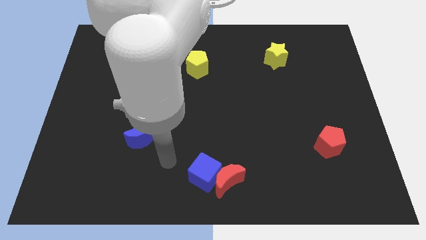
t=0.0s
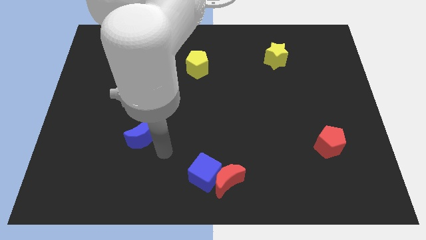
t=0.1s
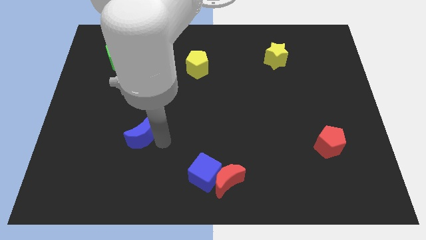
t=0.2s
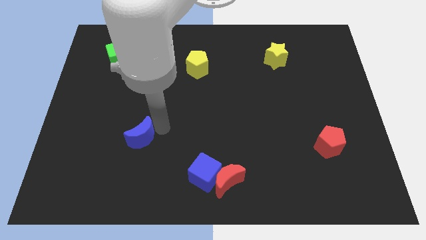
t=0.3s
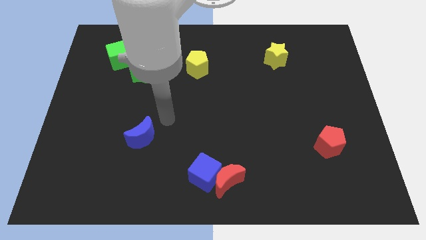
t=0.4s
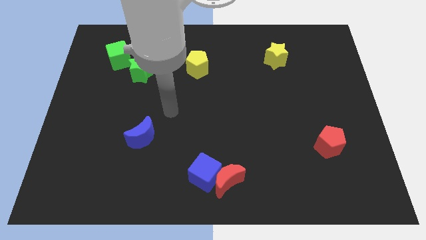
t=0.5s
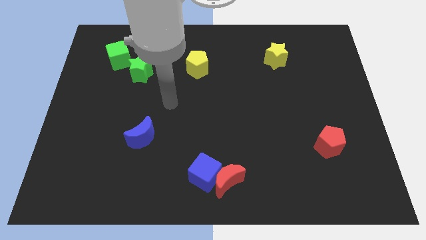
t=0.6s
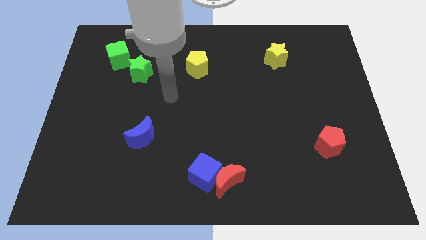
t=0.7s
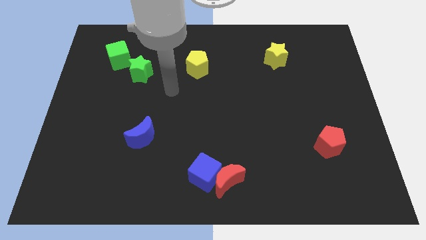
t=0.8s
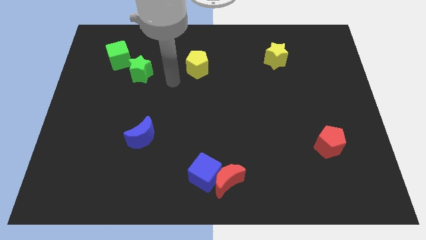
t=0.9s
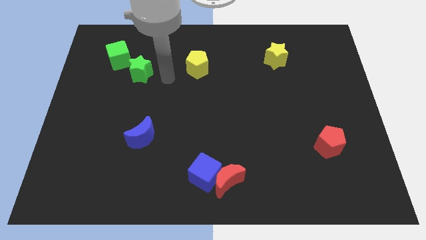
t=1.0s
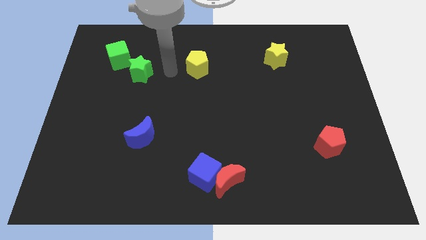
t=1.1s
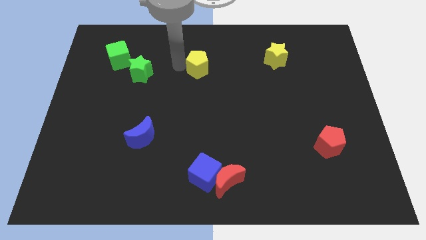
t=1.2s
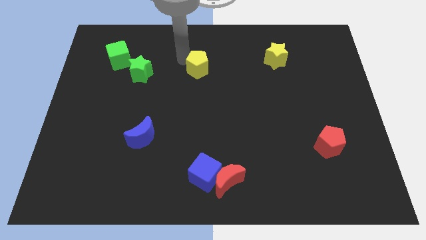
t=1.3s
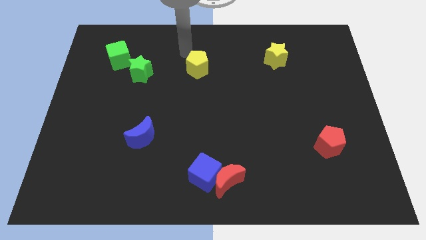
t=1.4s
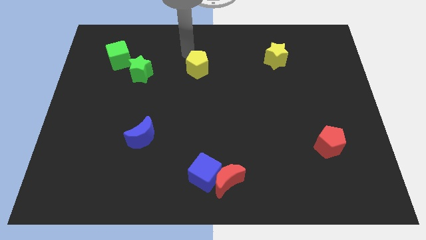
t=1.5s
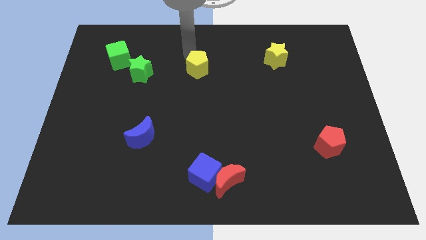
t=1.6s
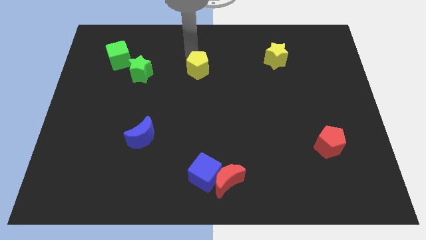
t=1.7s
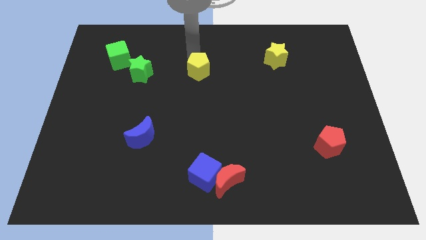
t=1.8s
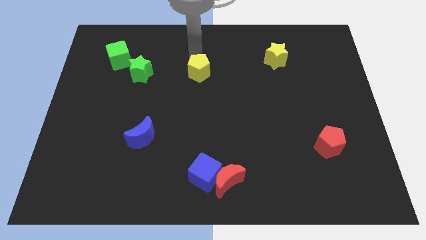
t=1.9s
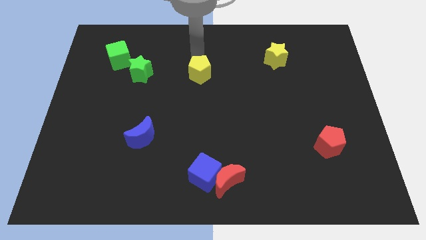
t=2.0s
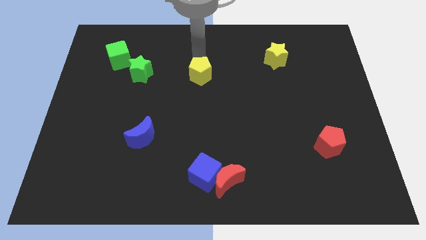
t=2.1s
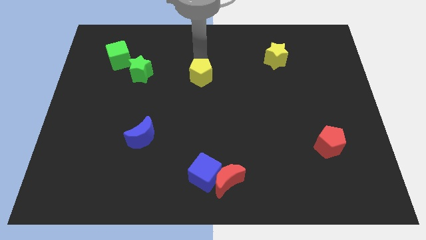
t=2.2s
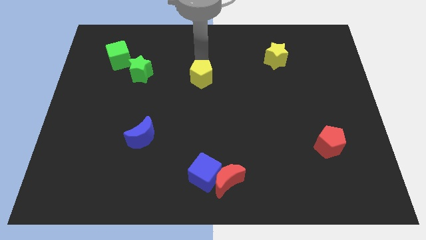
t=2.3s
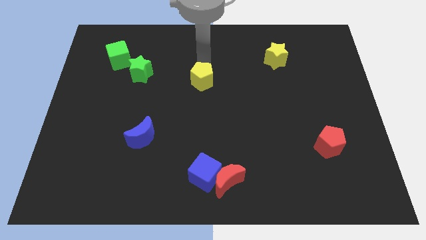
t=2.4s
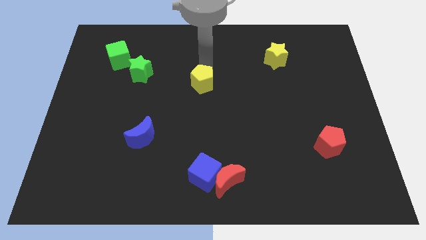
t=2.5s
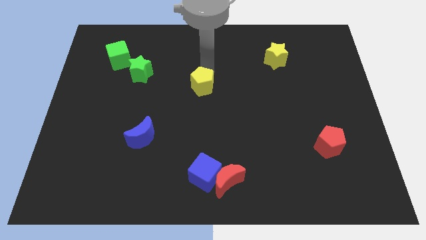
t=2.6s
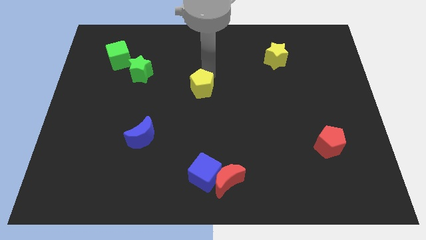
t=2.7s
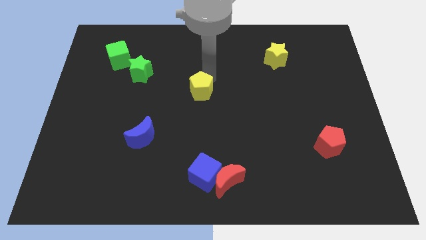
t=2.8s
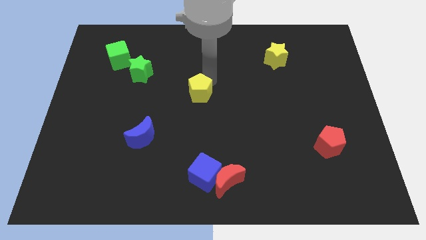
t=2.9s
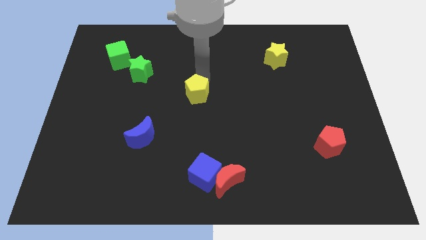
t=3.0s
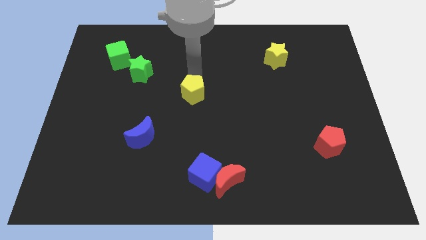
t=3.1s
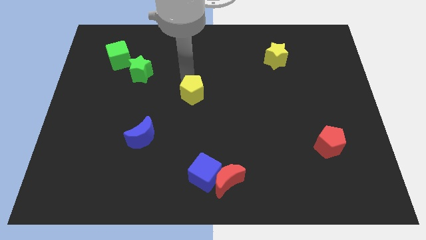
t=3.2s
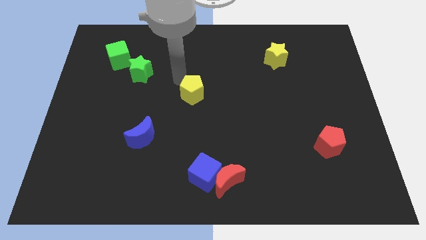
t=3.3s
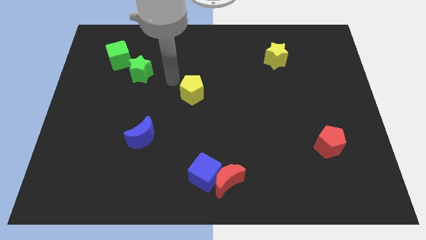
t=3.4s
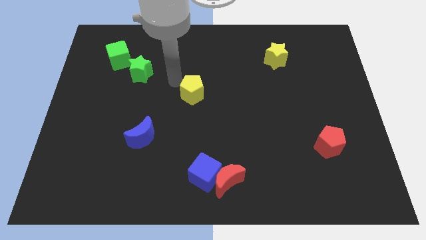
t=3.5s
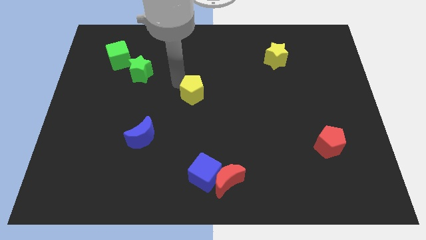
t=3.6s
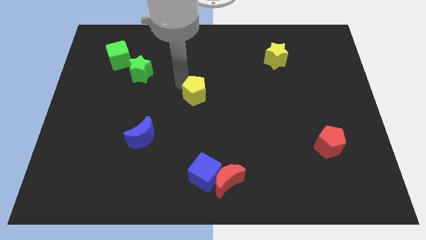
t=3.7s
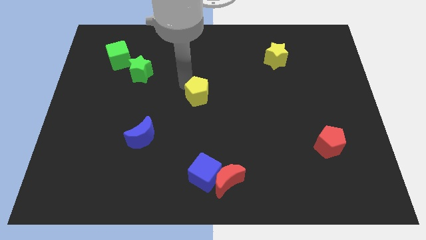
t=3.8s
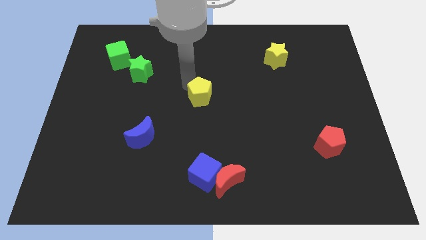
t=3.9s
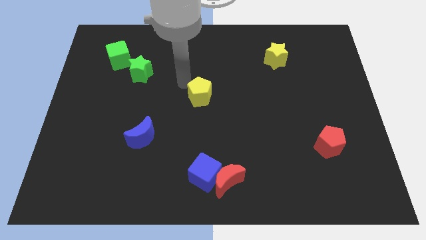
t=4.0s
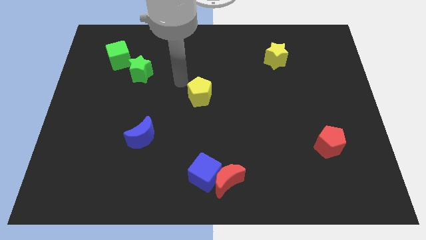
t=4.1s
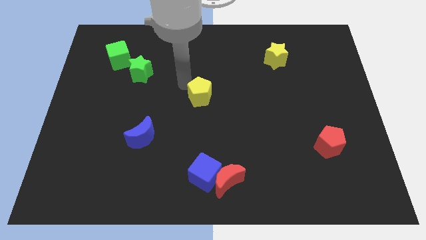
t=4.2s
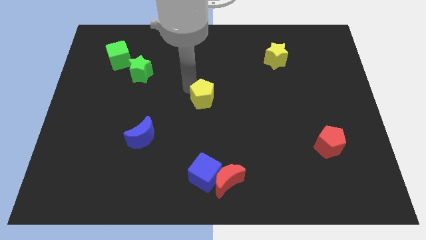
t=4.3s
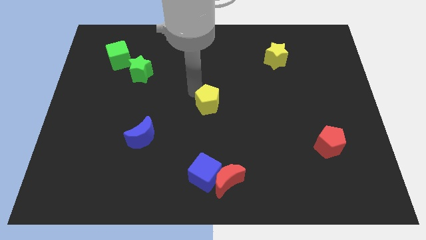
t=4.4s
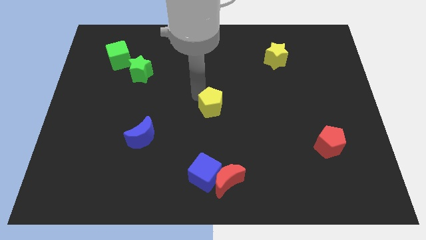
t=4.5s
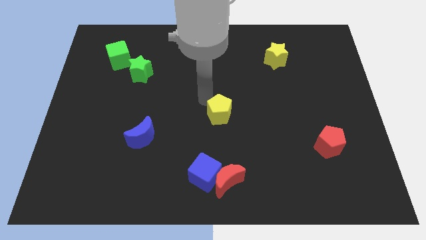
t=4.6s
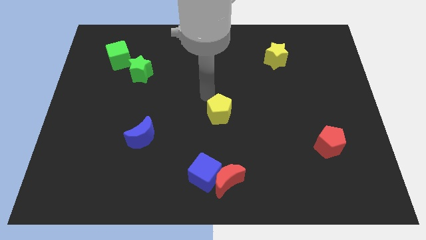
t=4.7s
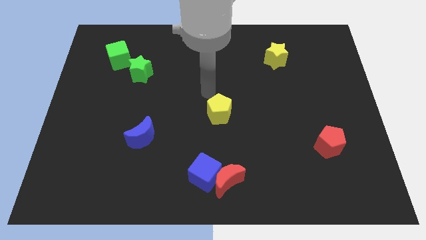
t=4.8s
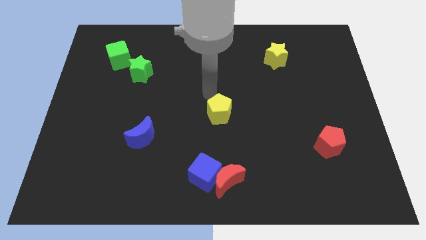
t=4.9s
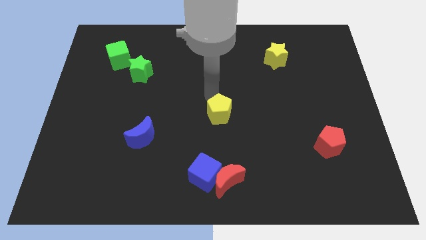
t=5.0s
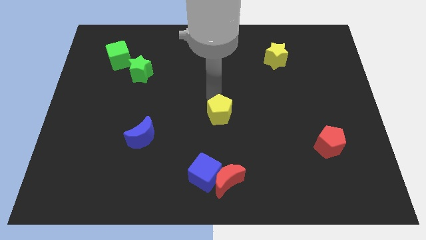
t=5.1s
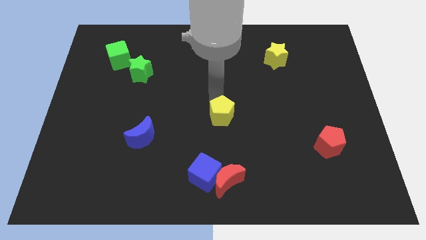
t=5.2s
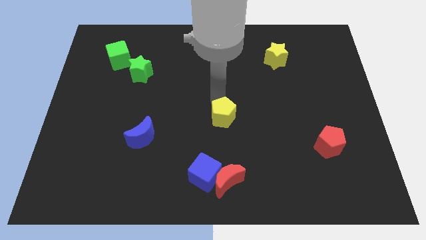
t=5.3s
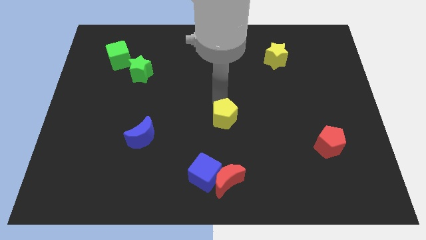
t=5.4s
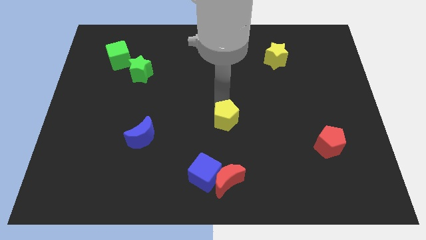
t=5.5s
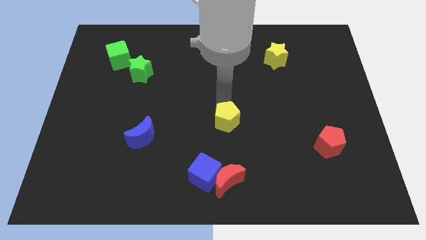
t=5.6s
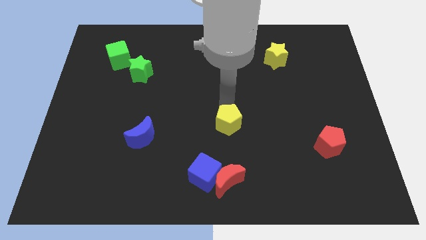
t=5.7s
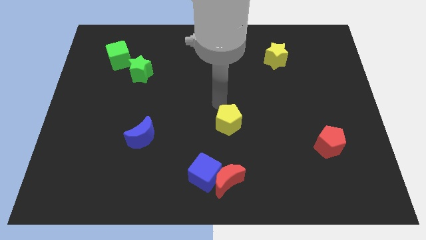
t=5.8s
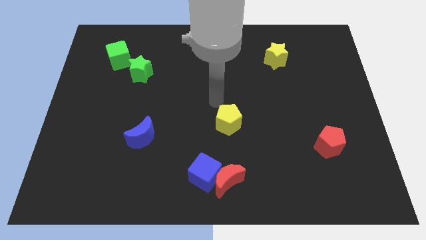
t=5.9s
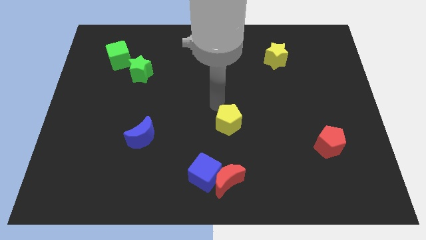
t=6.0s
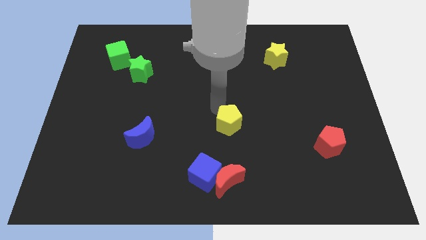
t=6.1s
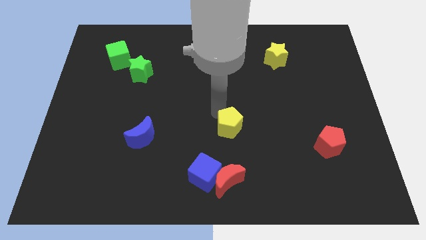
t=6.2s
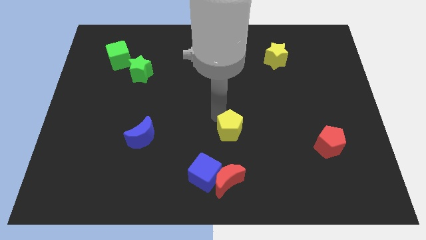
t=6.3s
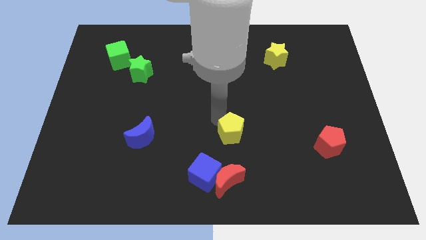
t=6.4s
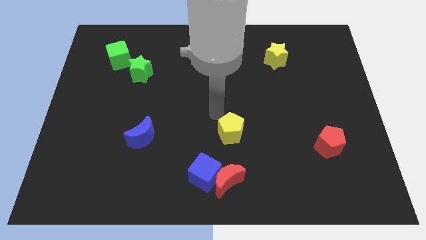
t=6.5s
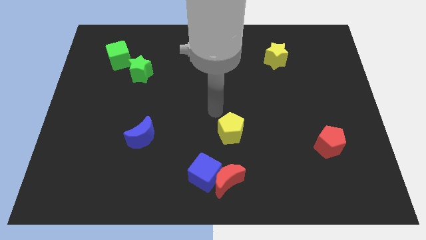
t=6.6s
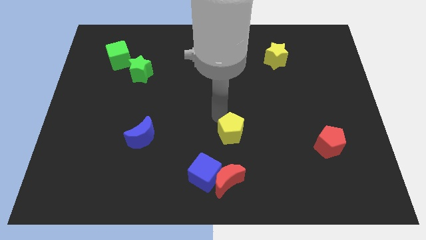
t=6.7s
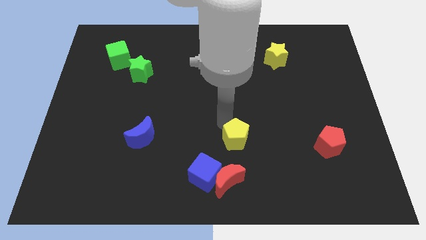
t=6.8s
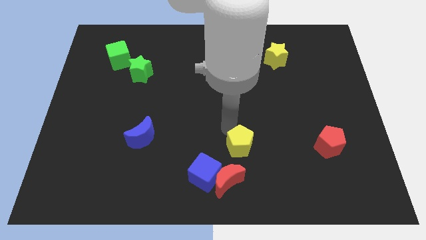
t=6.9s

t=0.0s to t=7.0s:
move the yellow pentagon to the top right of the red moon

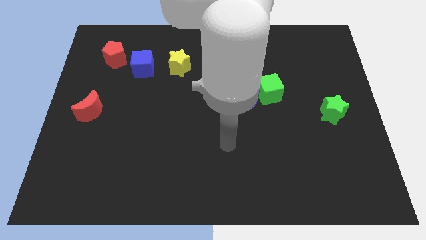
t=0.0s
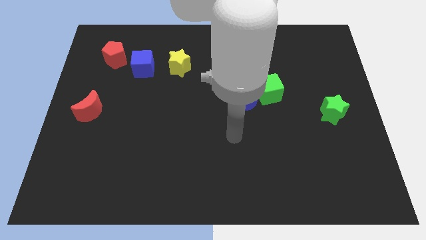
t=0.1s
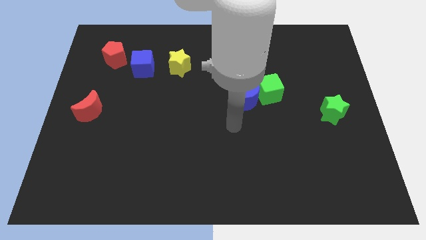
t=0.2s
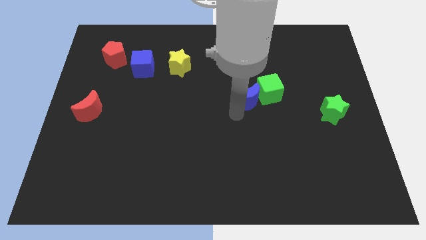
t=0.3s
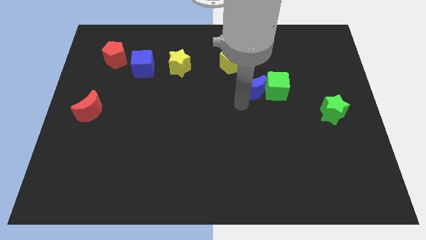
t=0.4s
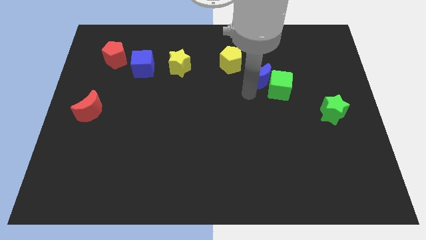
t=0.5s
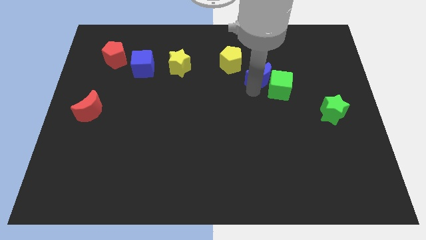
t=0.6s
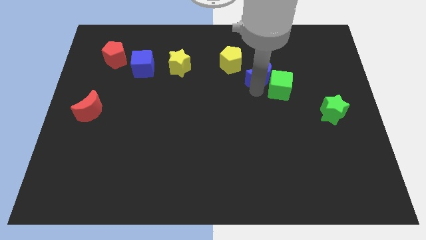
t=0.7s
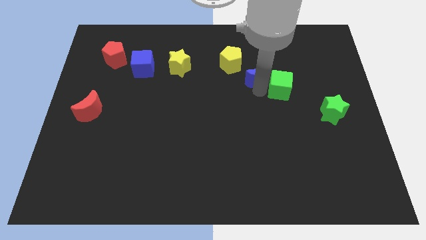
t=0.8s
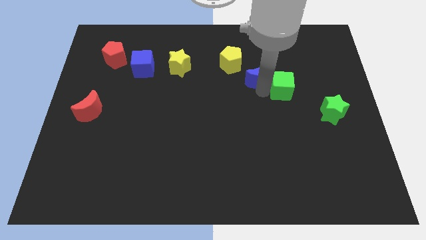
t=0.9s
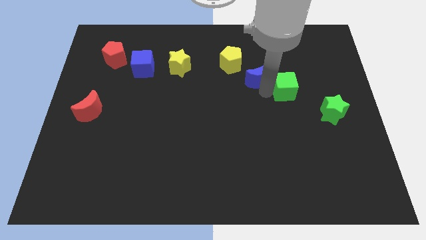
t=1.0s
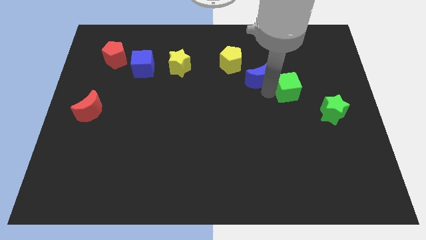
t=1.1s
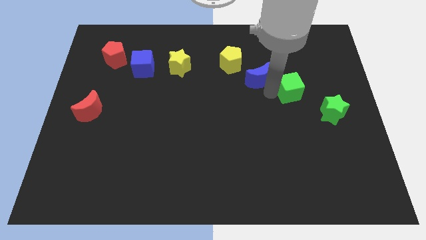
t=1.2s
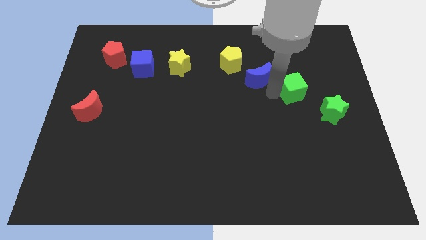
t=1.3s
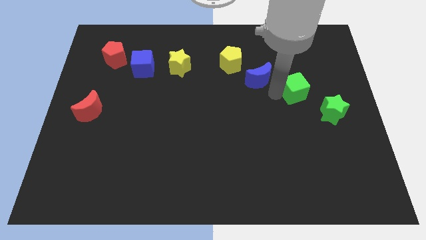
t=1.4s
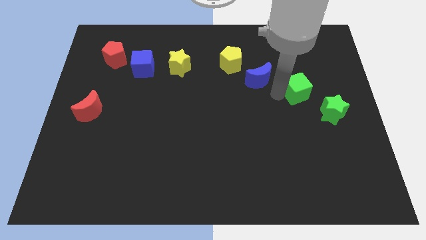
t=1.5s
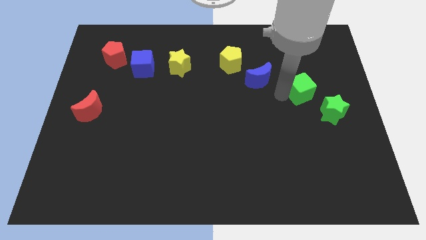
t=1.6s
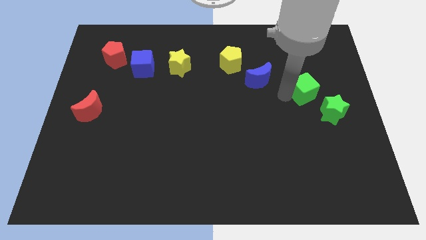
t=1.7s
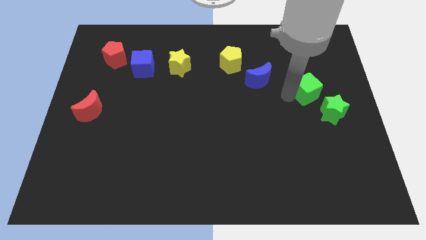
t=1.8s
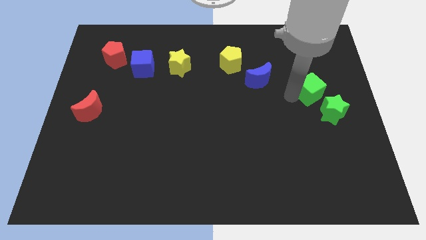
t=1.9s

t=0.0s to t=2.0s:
push the green cube above the green star
